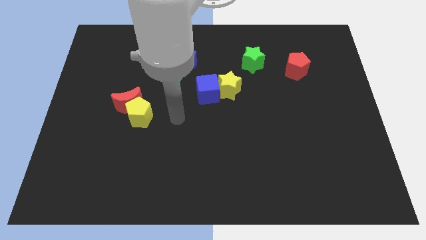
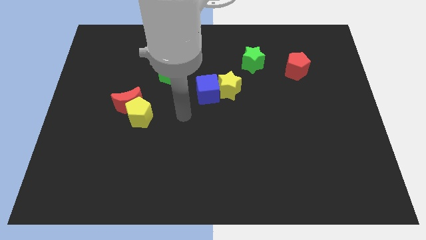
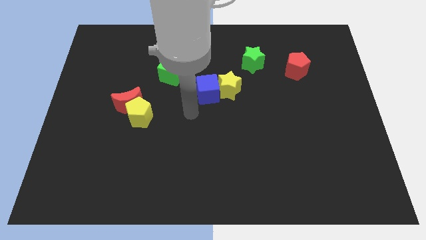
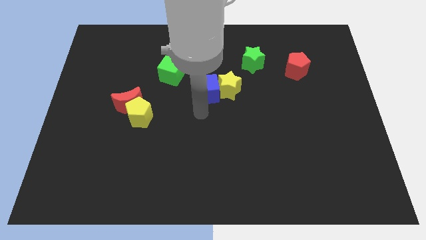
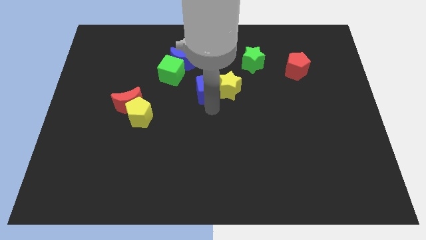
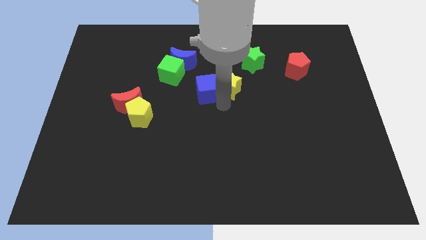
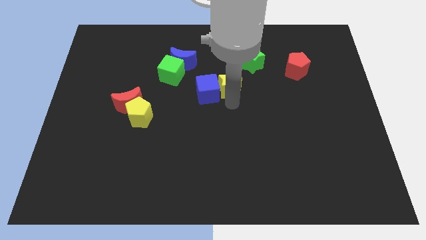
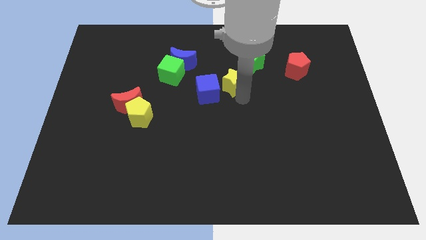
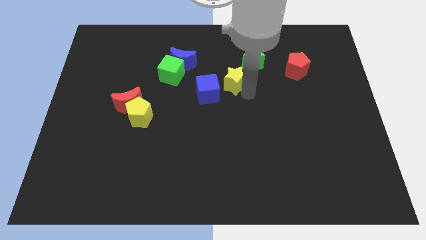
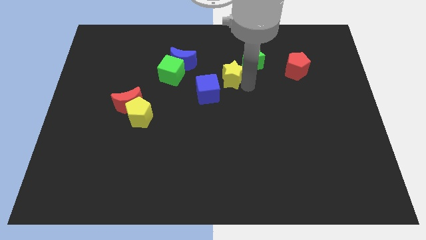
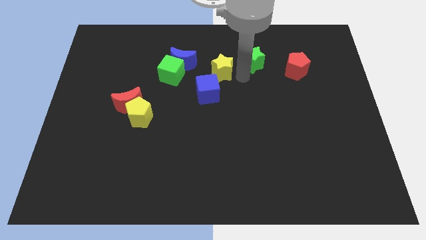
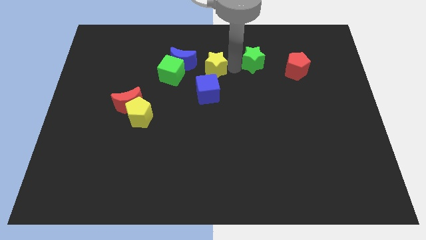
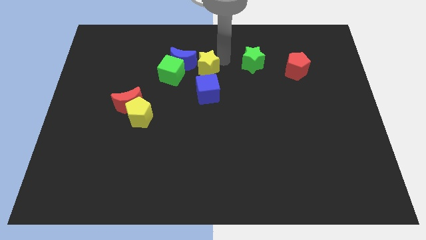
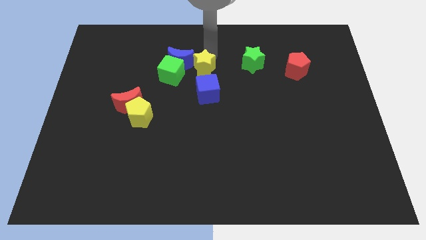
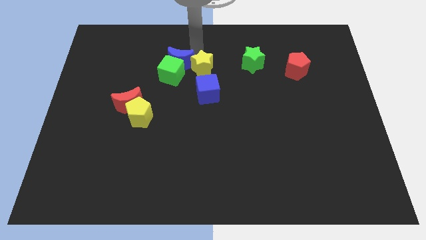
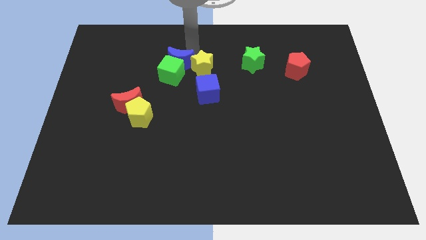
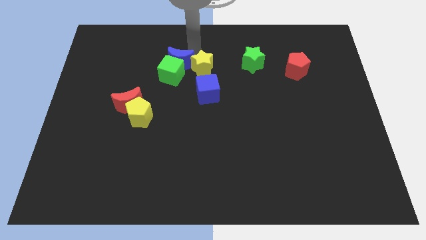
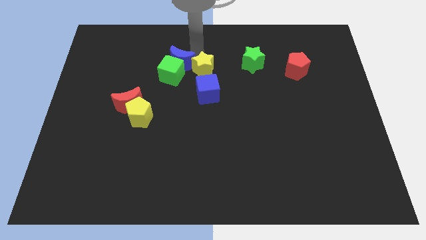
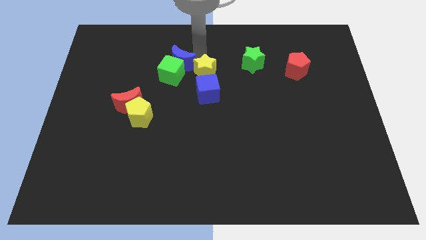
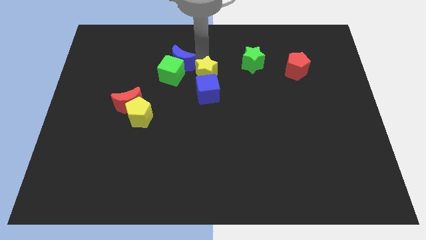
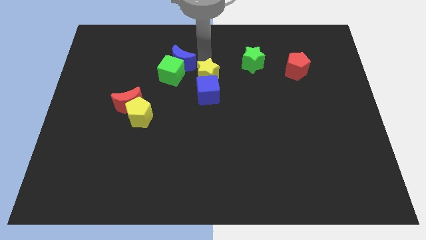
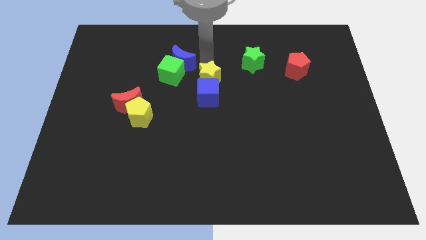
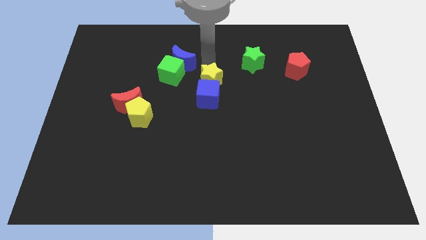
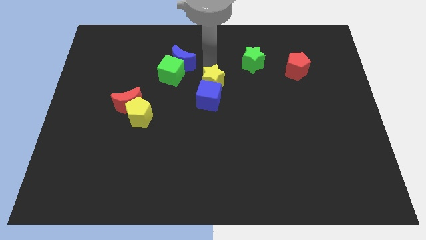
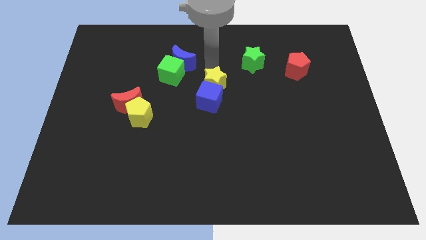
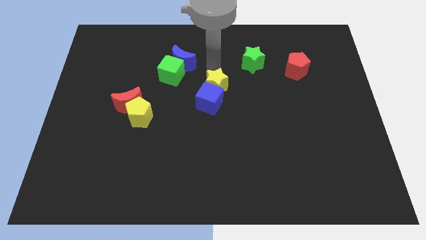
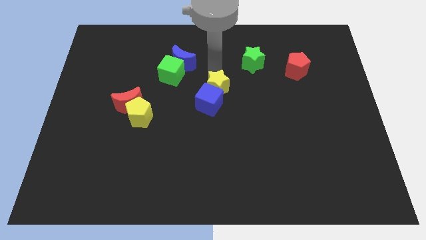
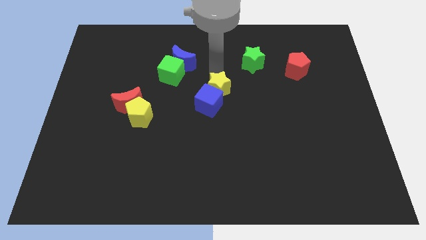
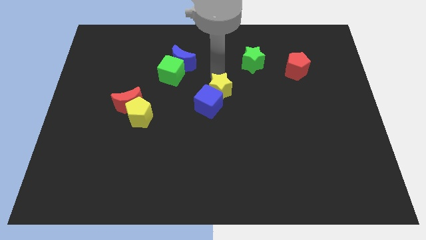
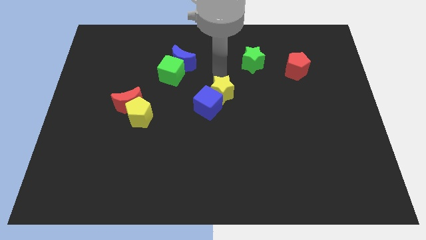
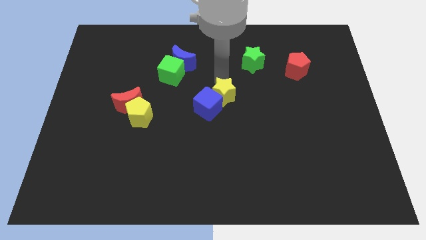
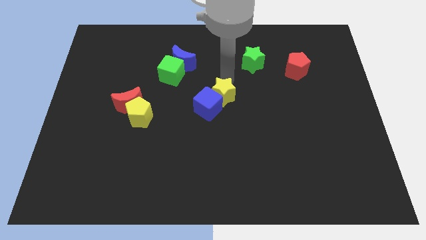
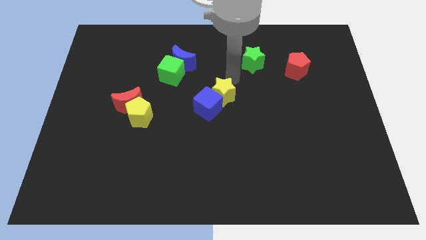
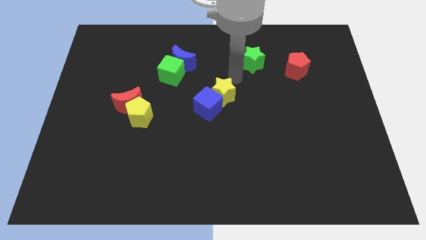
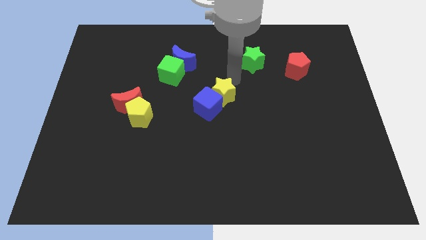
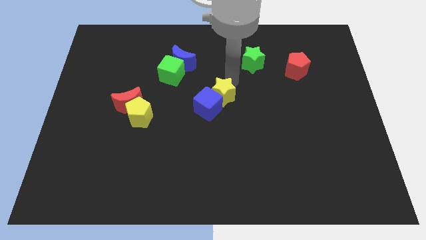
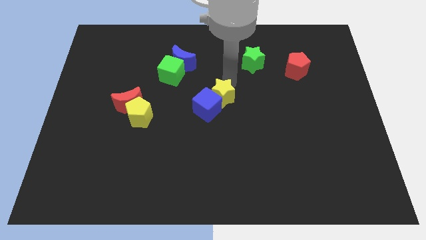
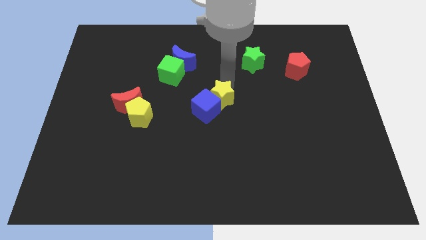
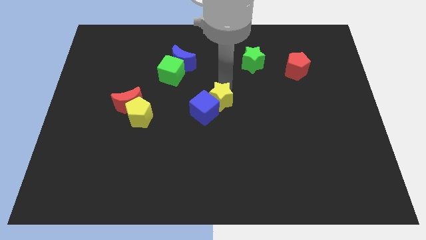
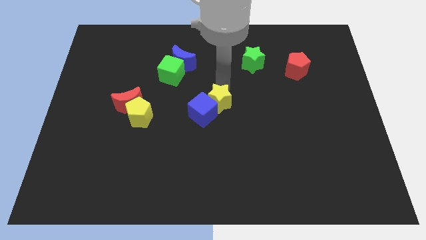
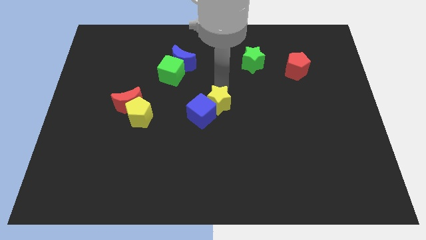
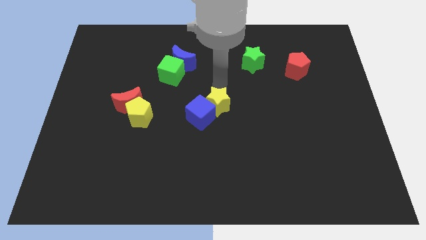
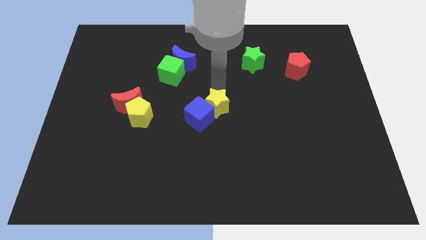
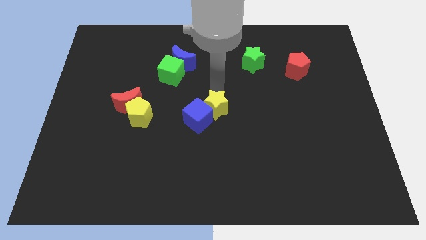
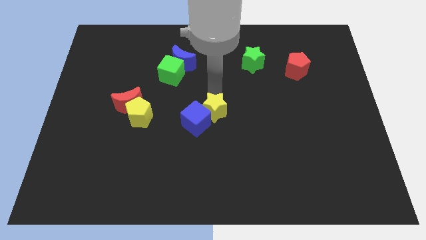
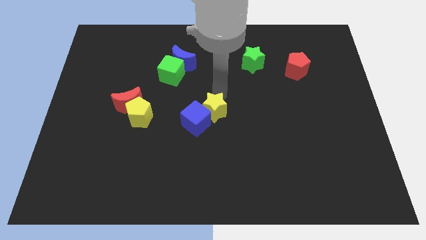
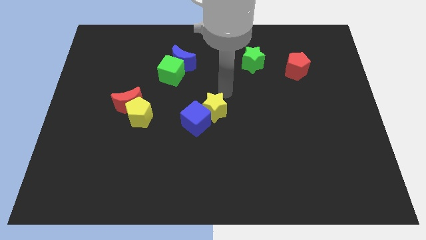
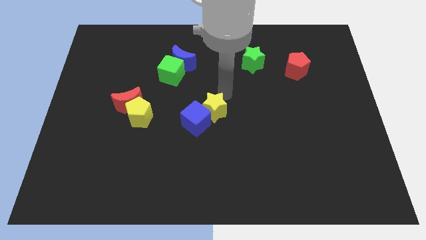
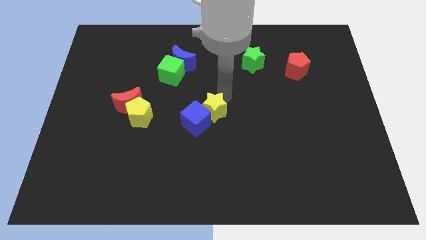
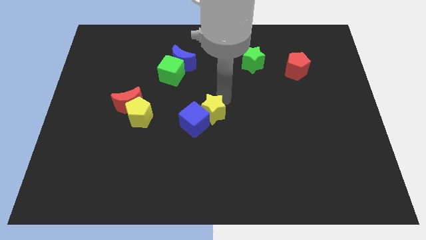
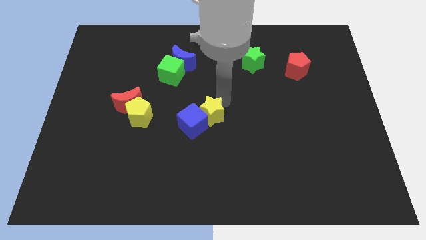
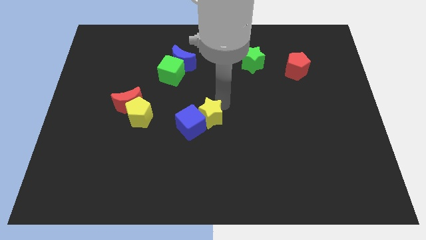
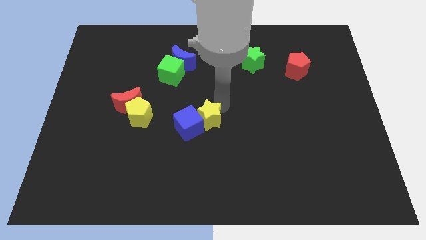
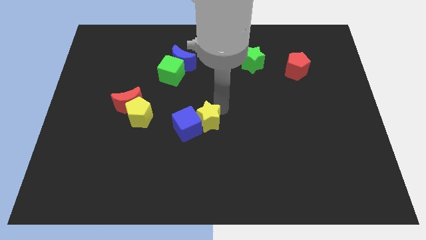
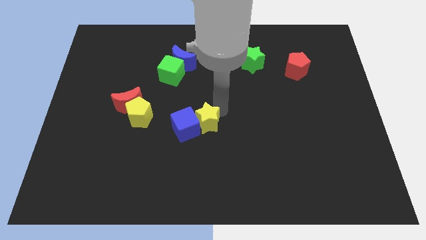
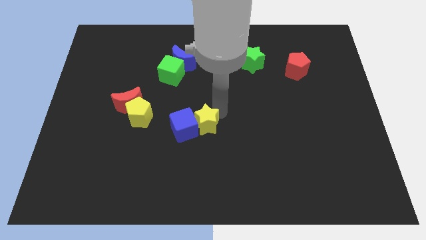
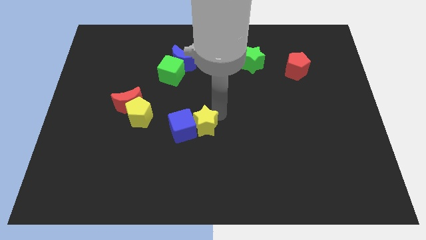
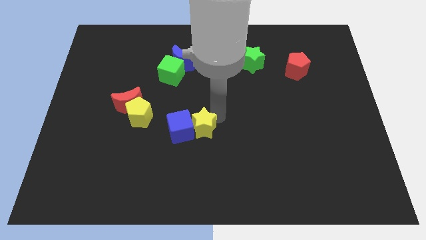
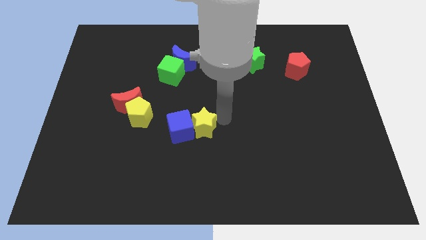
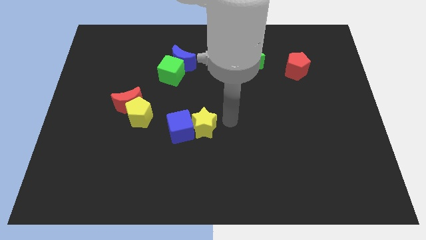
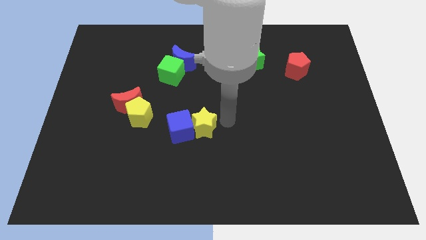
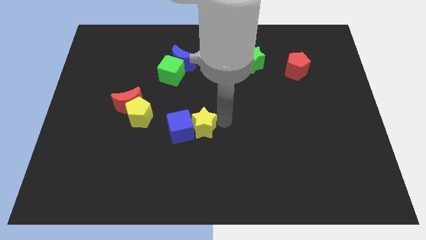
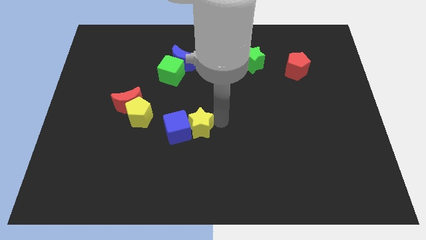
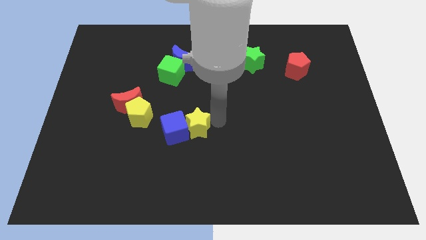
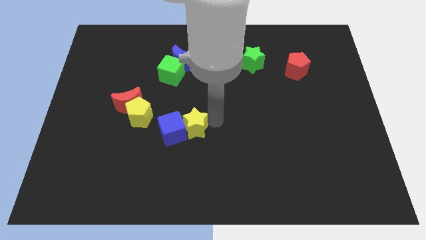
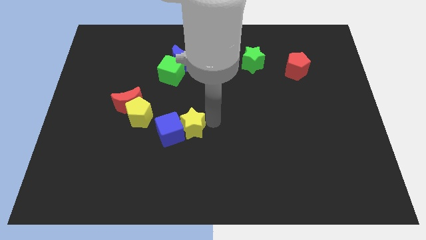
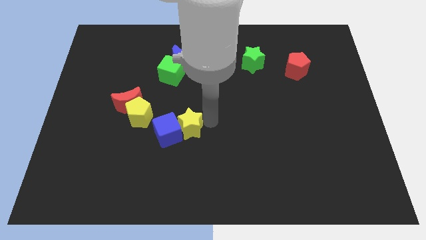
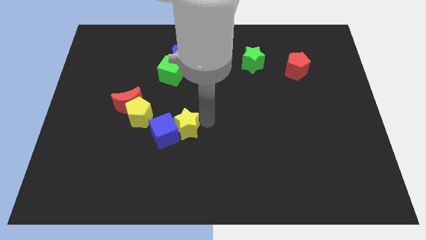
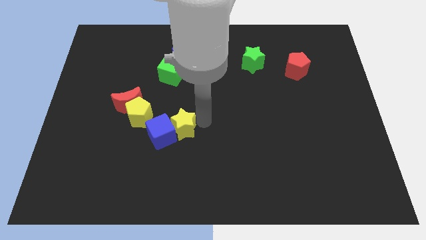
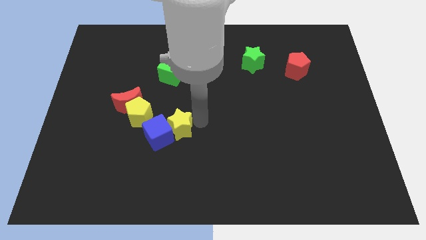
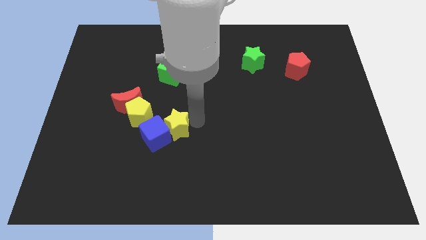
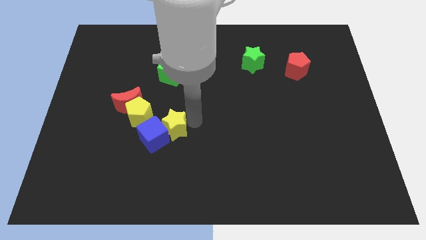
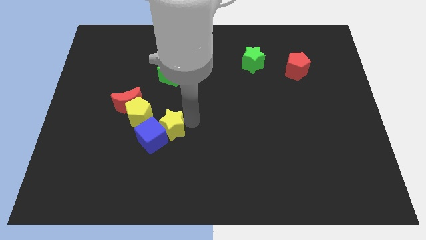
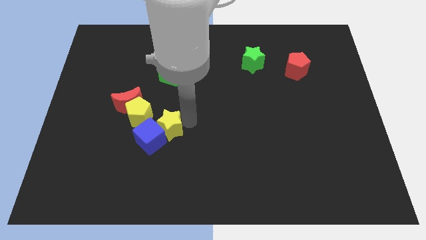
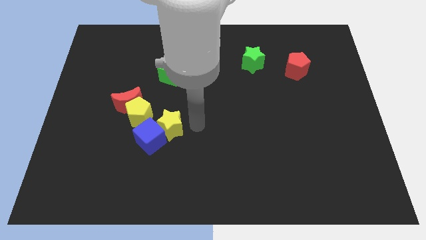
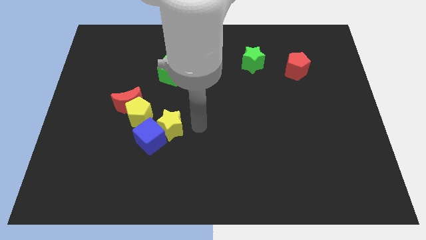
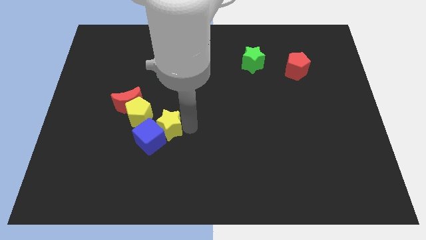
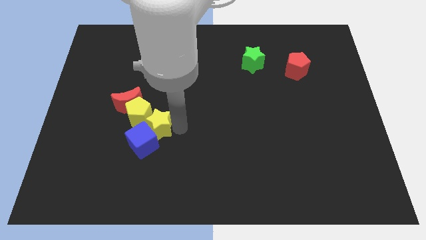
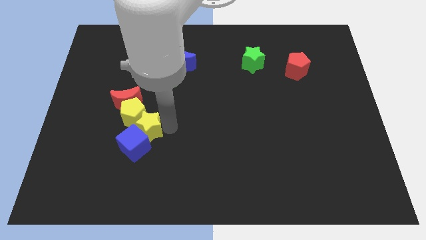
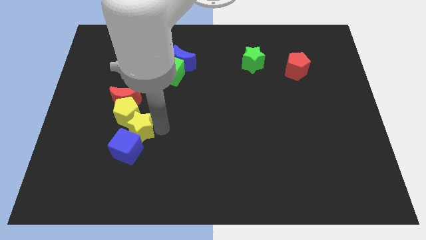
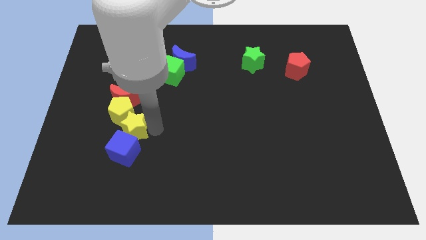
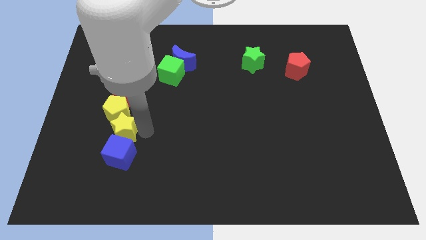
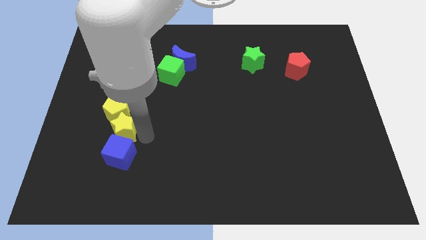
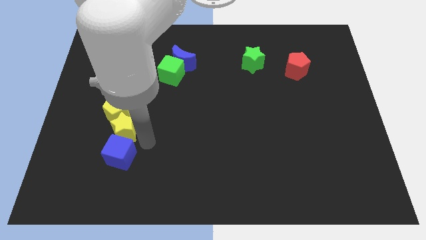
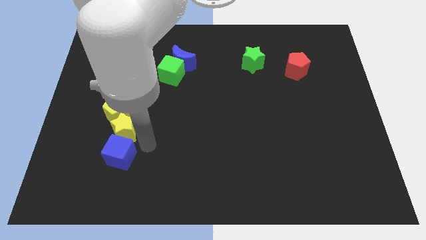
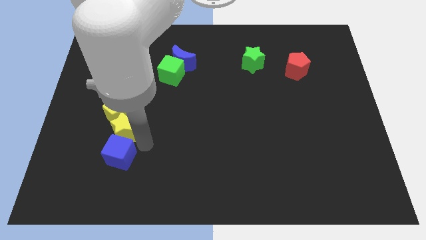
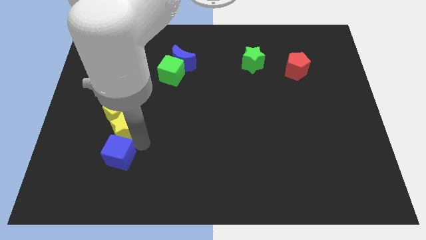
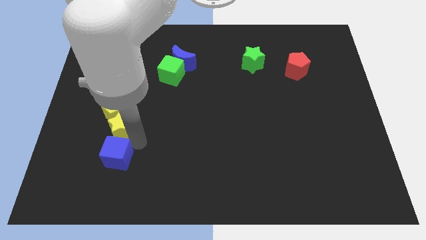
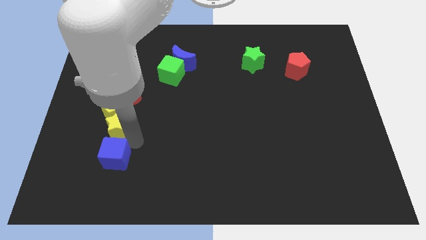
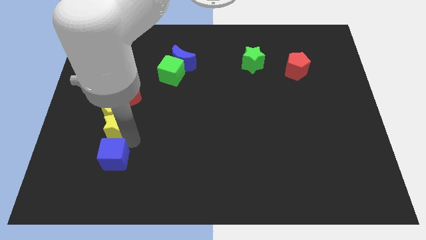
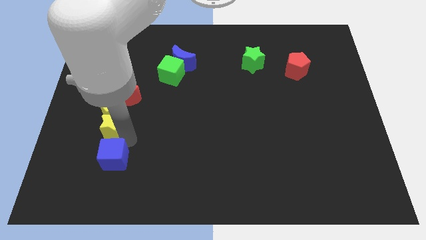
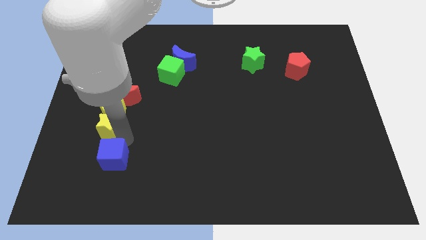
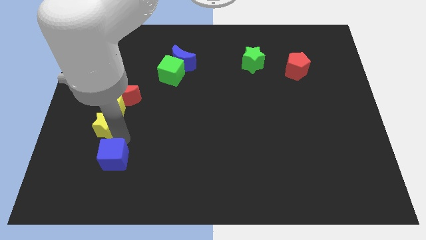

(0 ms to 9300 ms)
push the yellow star to the bottom left side of the red moon
